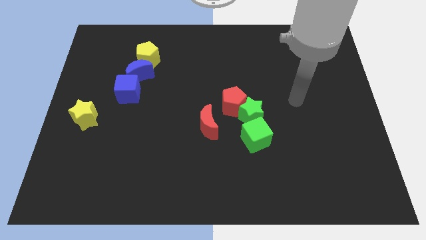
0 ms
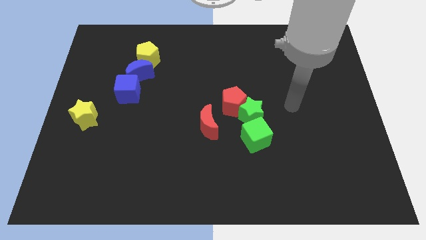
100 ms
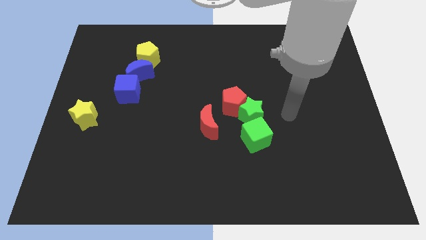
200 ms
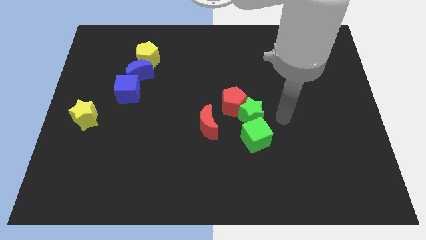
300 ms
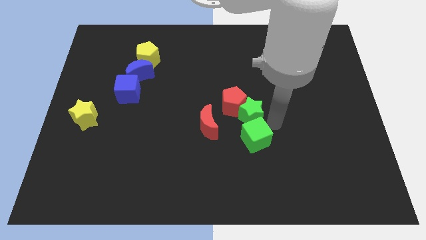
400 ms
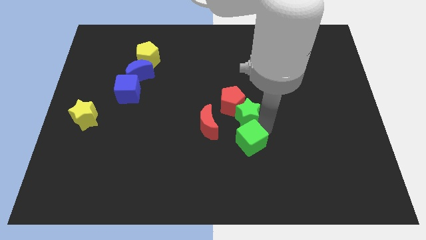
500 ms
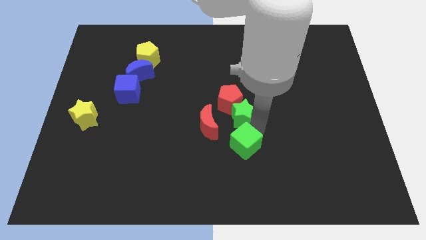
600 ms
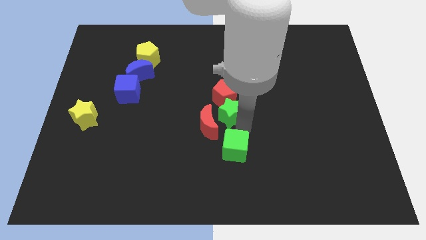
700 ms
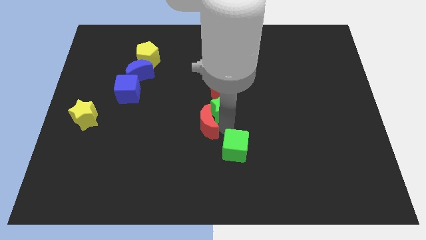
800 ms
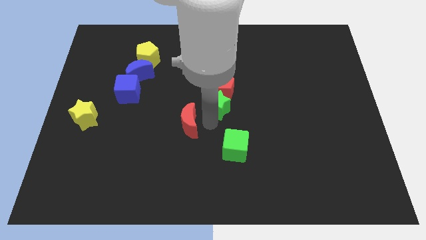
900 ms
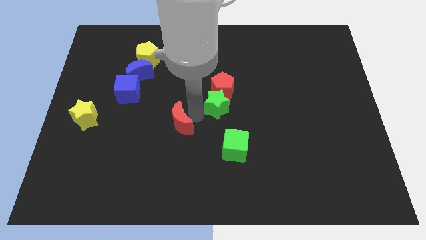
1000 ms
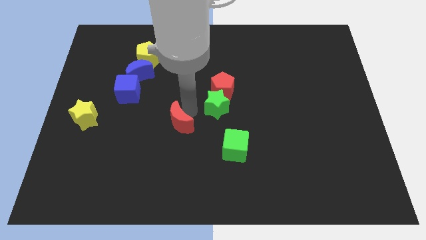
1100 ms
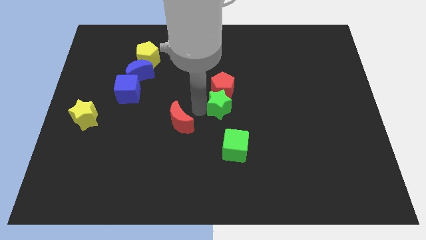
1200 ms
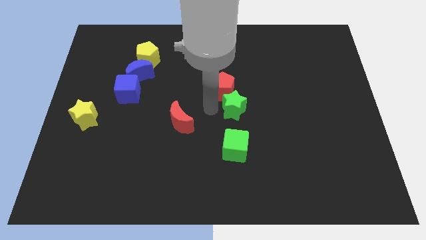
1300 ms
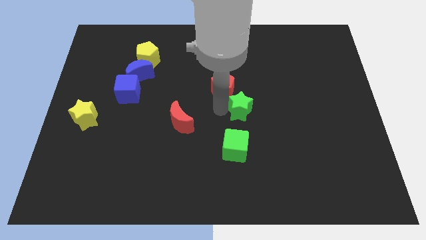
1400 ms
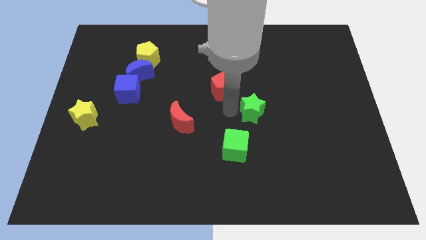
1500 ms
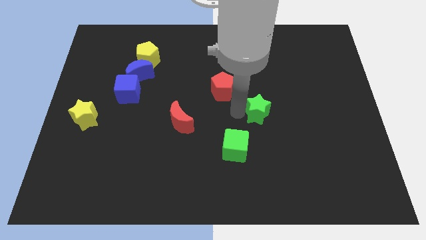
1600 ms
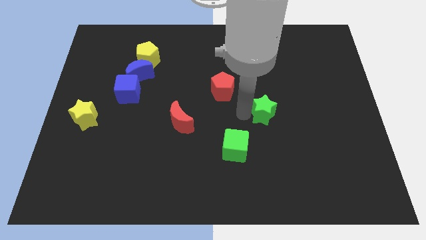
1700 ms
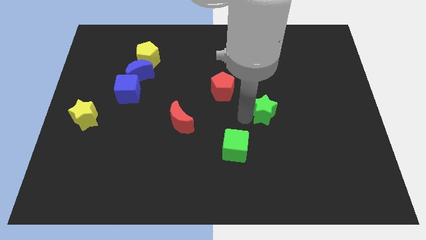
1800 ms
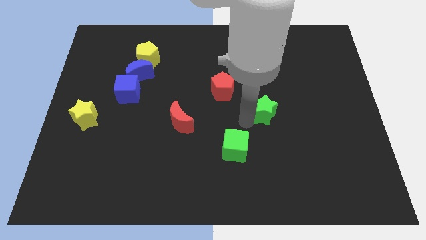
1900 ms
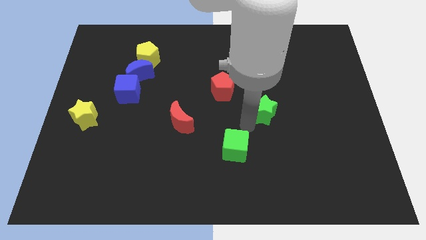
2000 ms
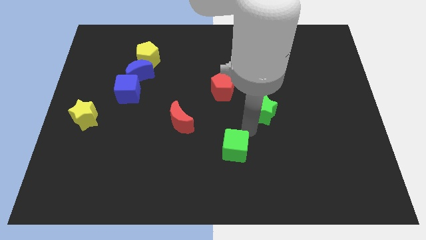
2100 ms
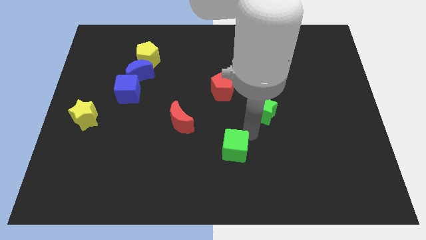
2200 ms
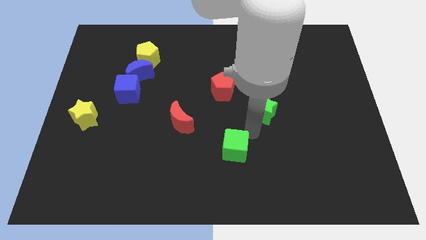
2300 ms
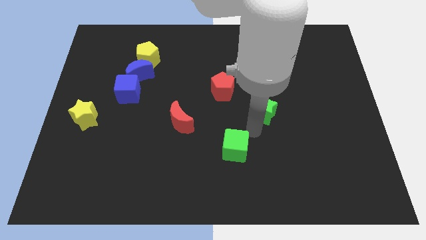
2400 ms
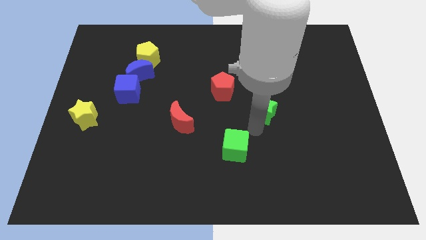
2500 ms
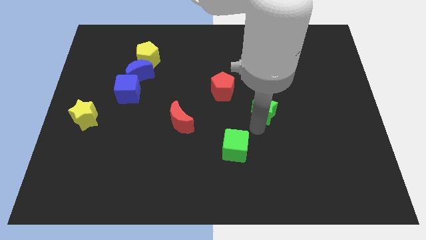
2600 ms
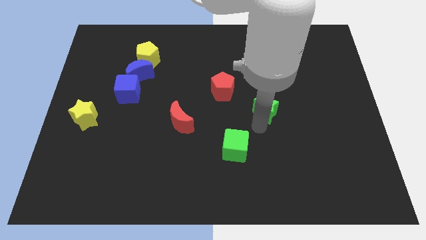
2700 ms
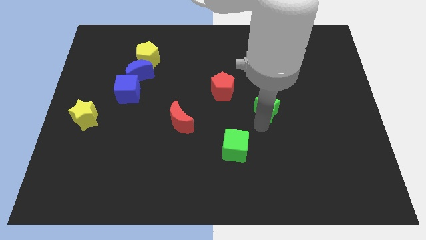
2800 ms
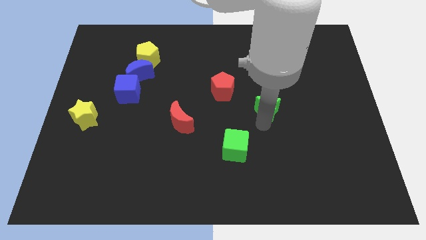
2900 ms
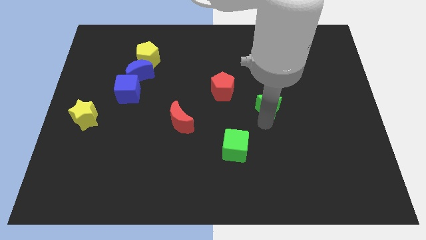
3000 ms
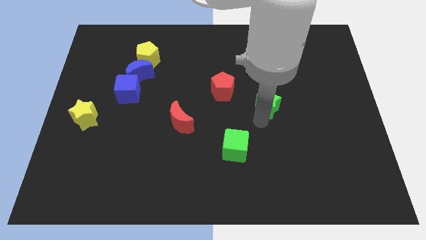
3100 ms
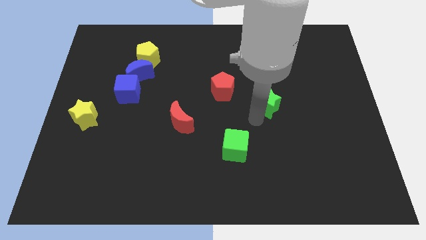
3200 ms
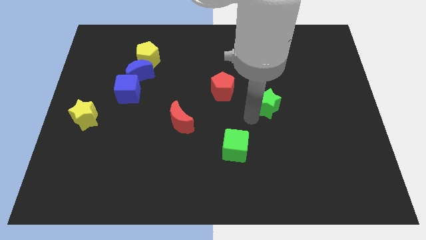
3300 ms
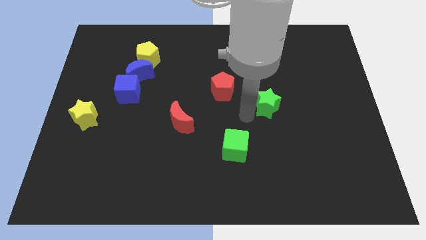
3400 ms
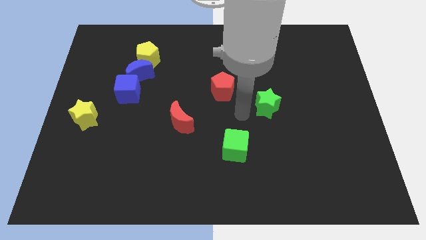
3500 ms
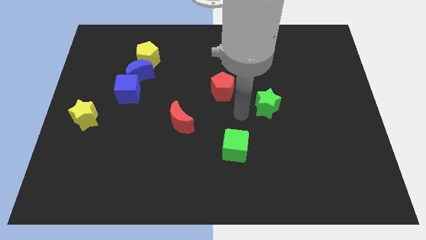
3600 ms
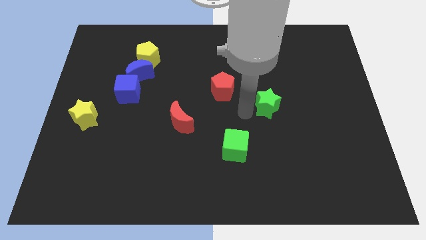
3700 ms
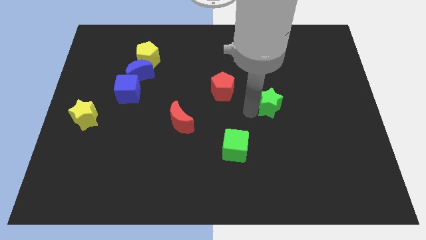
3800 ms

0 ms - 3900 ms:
move the green star away from the red pentagon and green cube

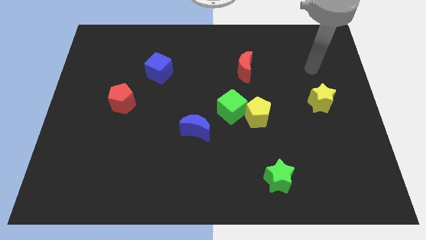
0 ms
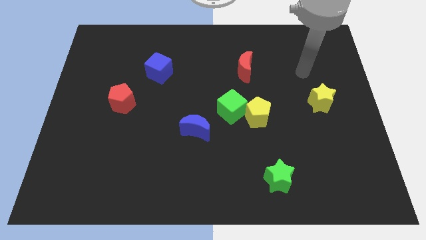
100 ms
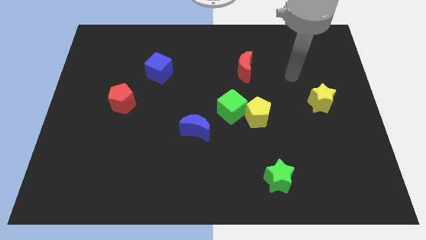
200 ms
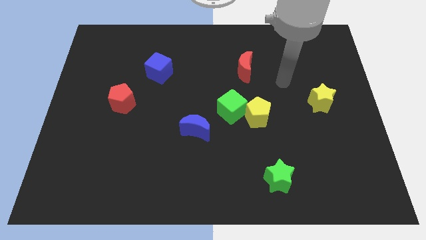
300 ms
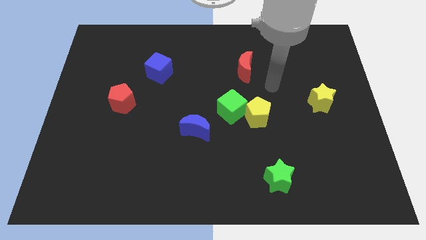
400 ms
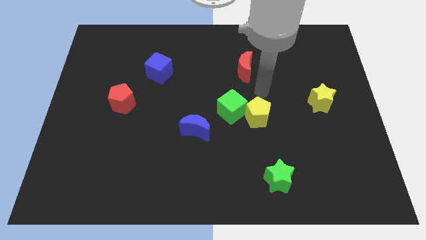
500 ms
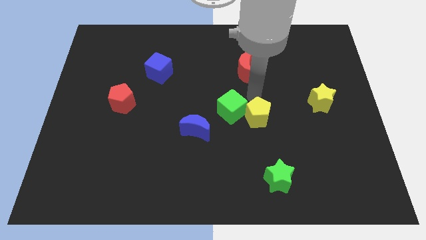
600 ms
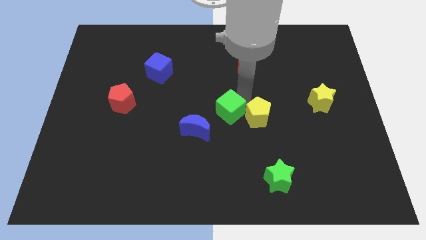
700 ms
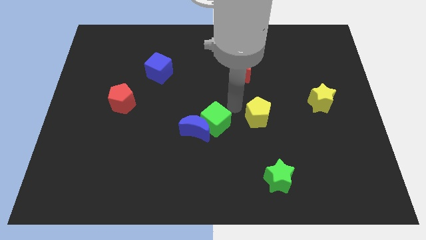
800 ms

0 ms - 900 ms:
move the yellow pentagon away from the green cube

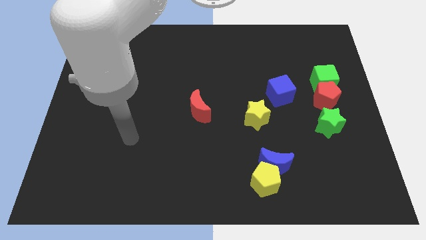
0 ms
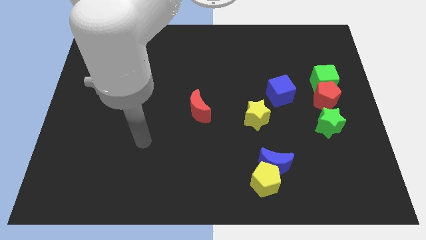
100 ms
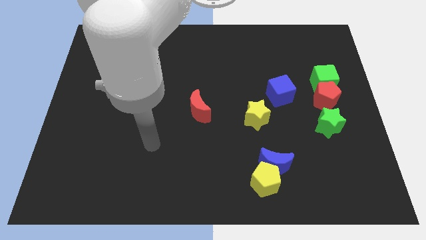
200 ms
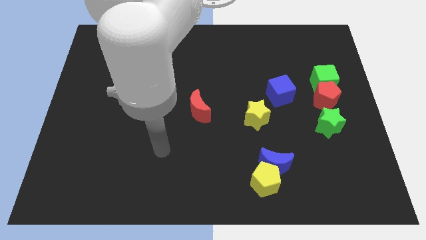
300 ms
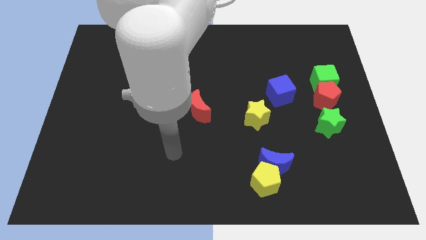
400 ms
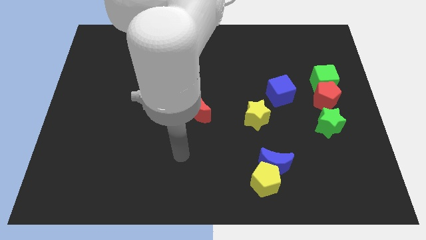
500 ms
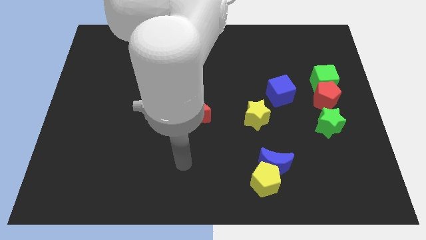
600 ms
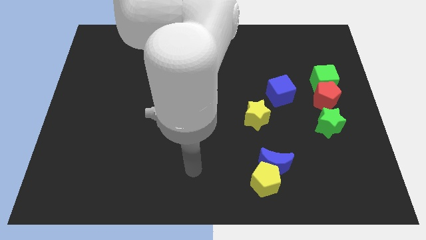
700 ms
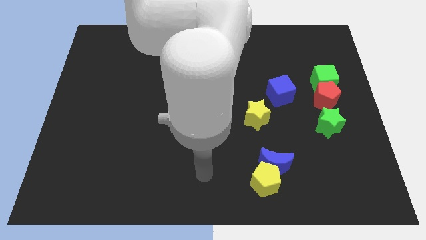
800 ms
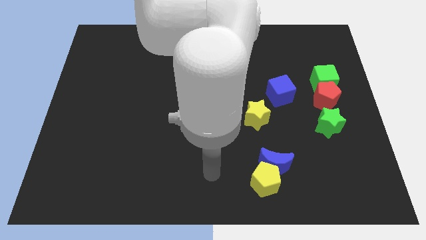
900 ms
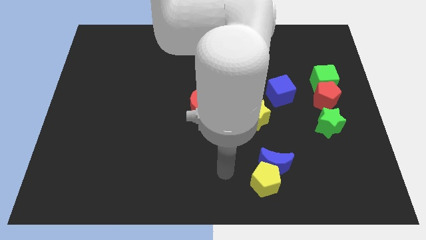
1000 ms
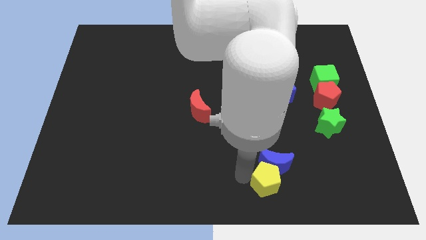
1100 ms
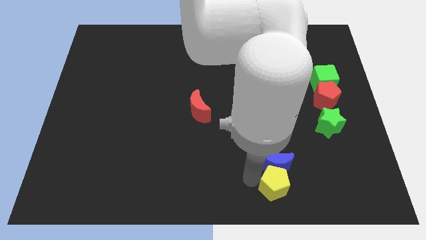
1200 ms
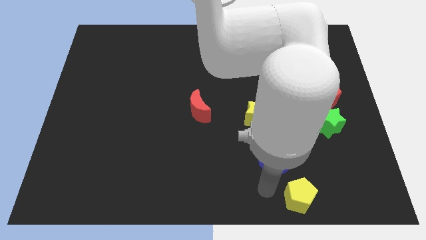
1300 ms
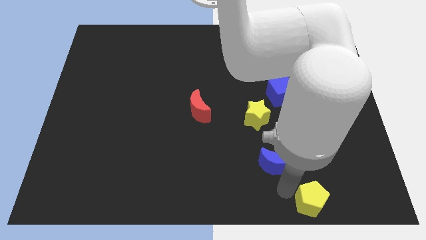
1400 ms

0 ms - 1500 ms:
pull the blue moon apart from the yellow pentagon

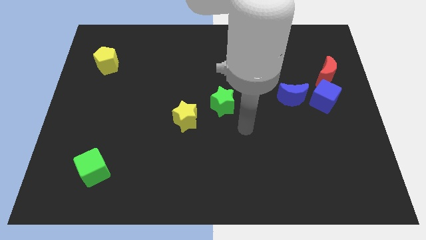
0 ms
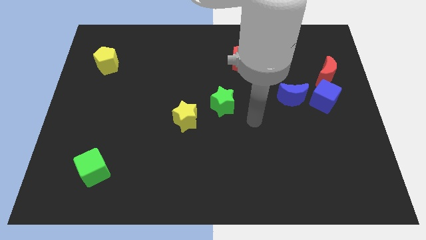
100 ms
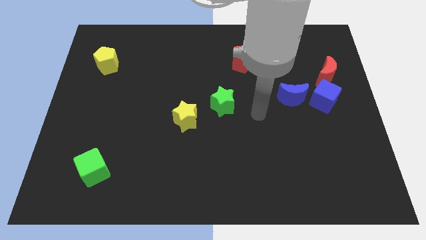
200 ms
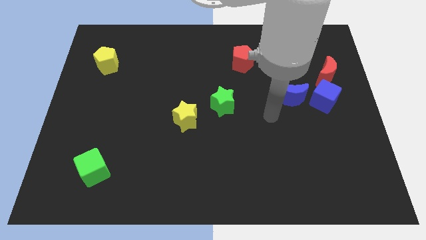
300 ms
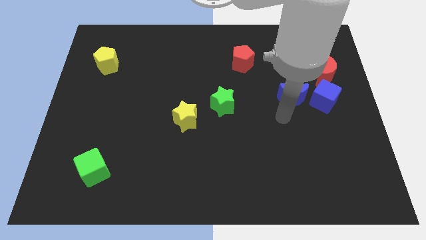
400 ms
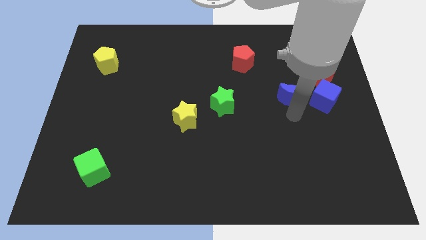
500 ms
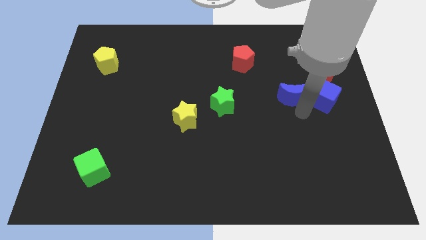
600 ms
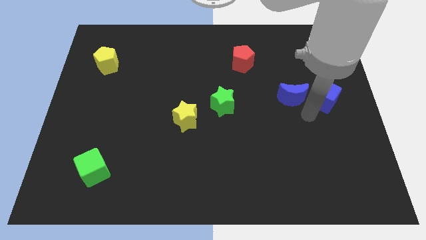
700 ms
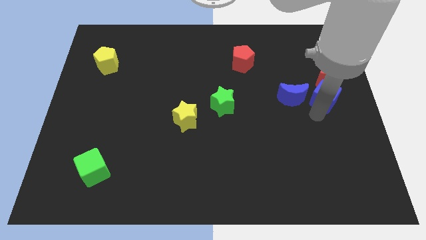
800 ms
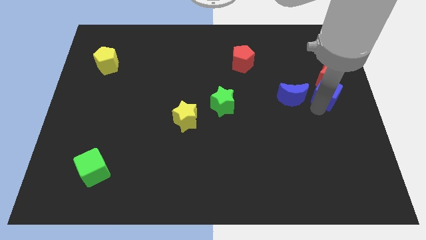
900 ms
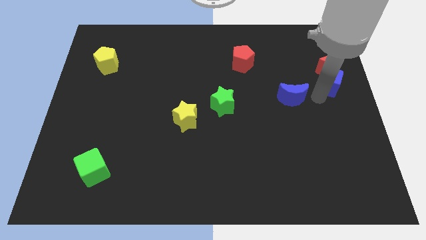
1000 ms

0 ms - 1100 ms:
move the blue moon away from the blue cube

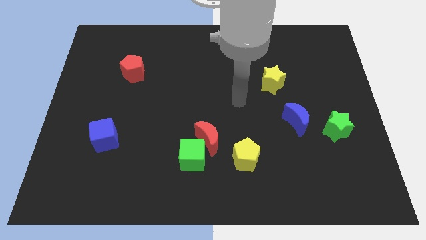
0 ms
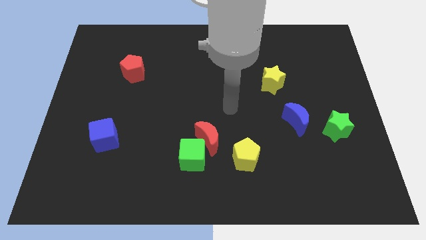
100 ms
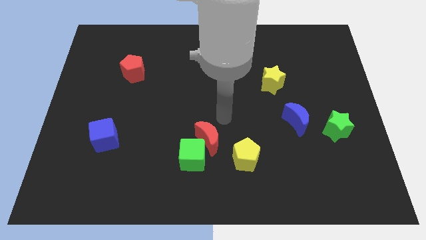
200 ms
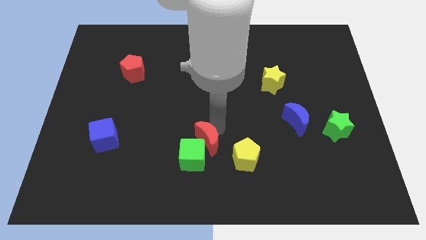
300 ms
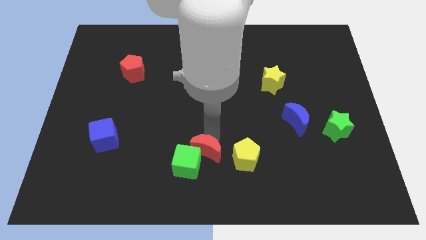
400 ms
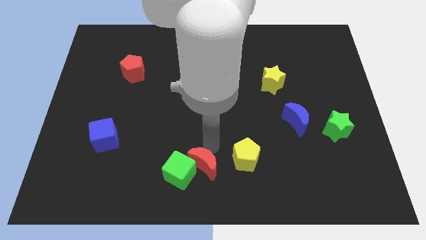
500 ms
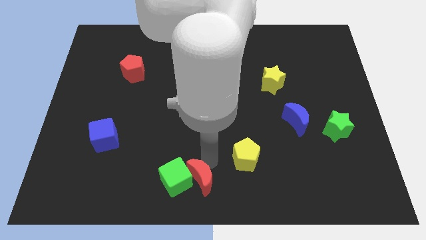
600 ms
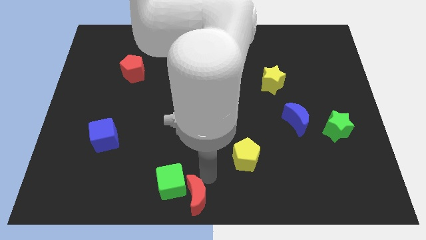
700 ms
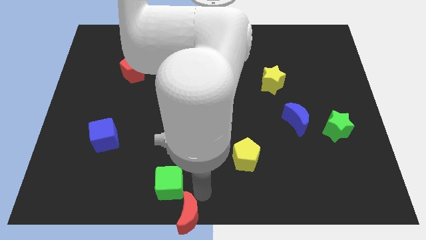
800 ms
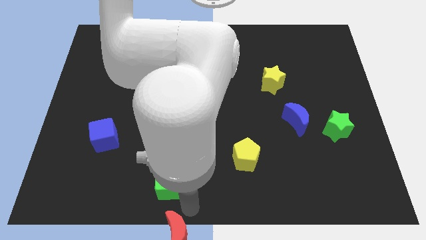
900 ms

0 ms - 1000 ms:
move the green cube away from the red moon

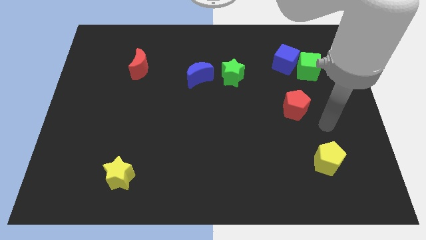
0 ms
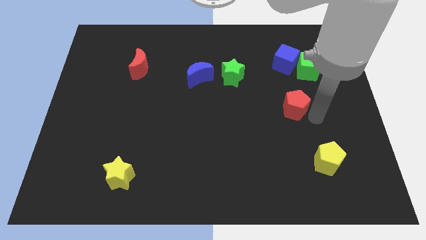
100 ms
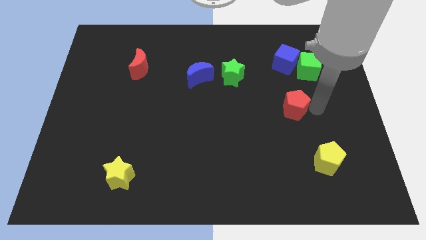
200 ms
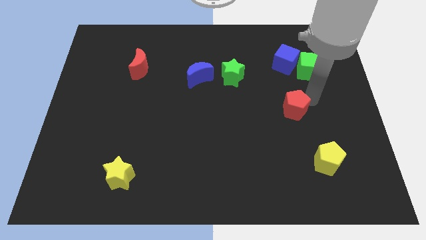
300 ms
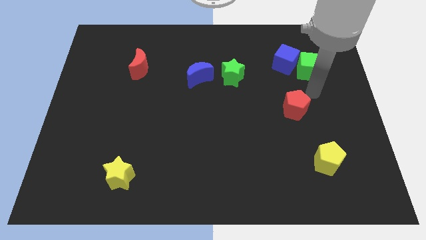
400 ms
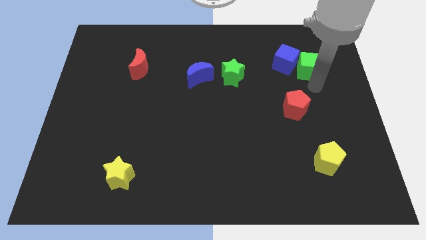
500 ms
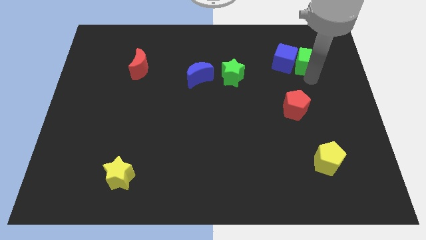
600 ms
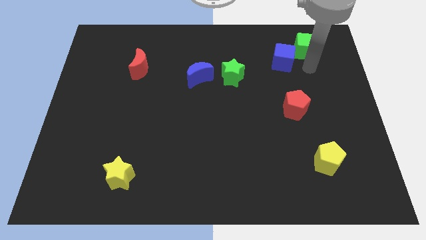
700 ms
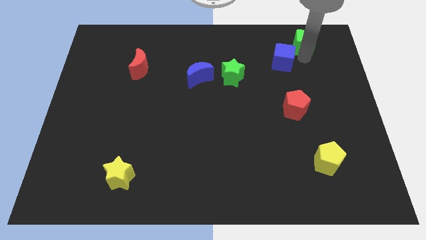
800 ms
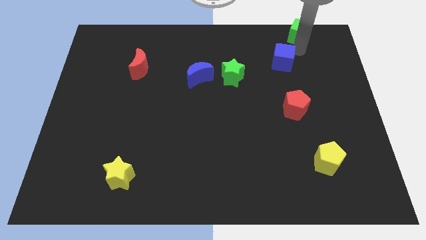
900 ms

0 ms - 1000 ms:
separate the blue cube from the green cube

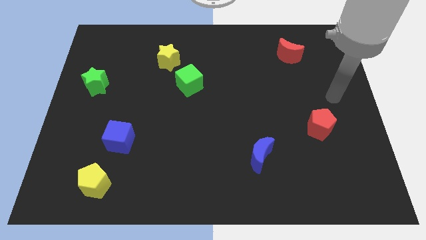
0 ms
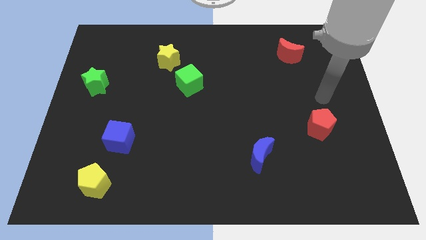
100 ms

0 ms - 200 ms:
separate the green cube from the yellow star
